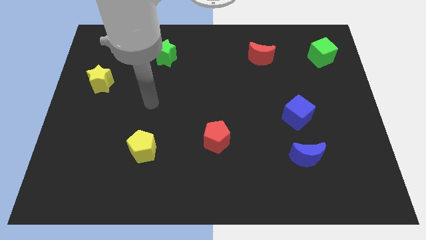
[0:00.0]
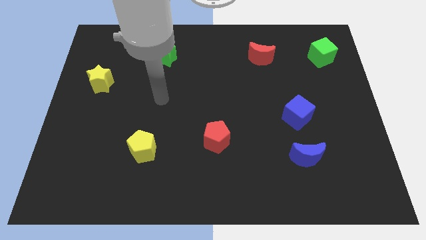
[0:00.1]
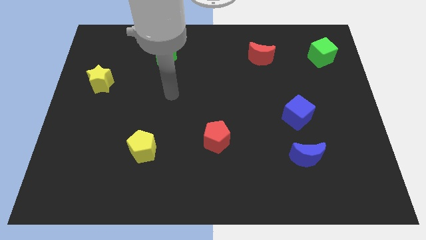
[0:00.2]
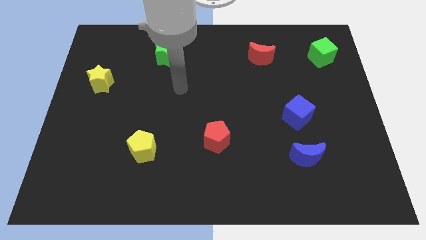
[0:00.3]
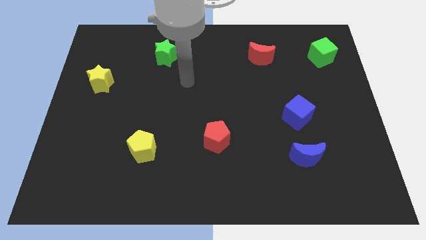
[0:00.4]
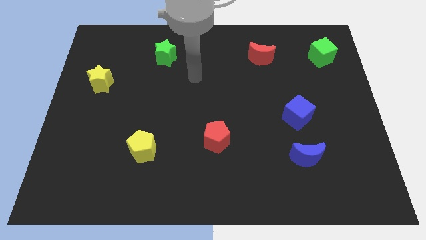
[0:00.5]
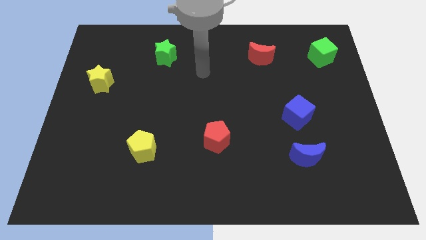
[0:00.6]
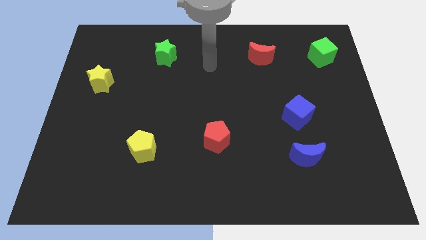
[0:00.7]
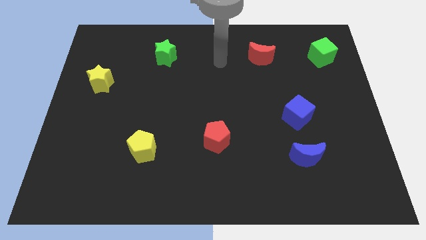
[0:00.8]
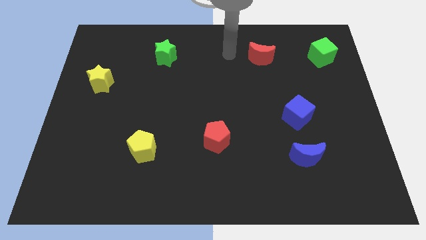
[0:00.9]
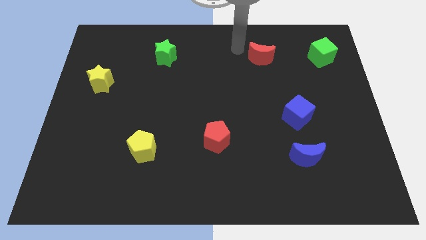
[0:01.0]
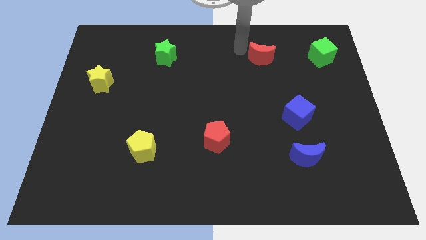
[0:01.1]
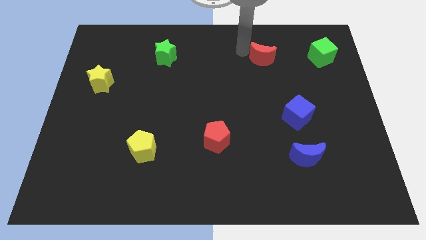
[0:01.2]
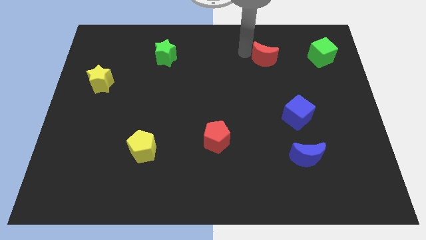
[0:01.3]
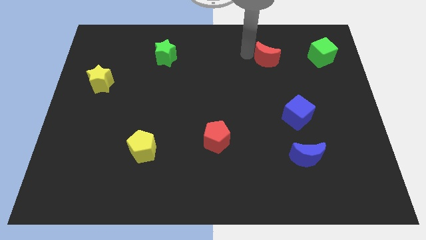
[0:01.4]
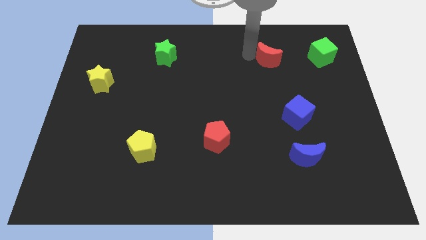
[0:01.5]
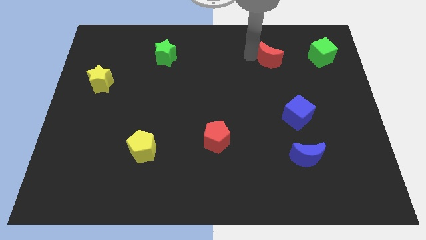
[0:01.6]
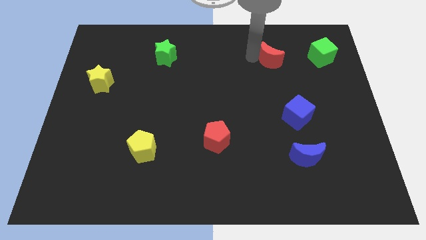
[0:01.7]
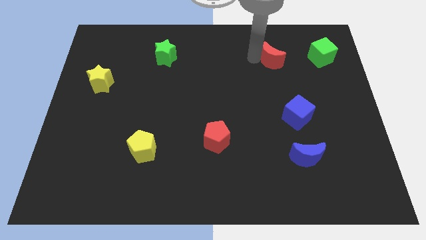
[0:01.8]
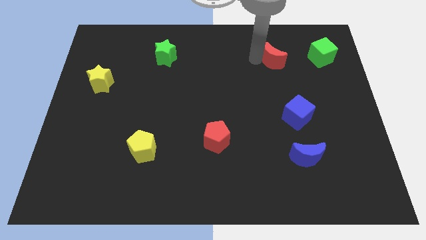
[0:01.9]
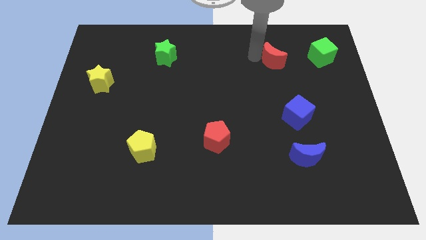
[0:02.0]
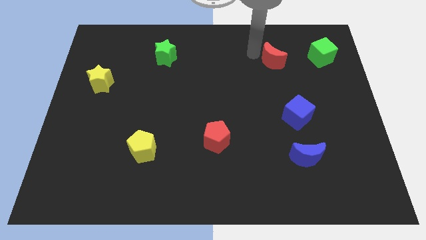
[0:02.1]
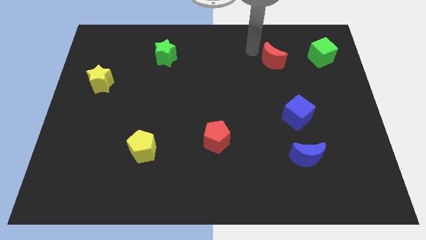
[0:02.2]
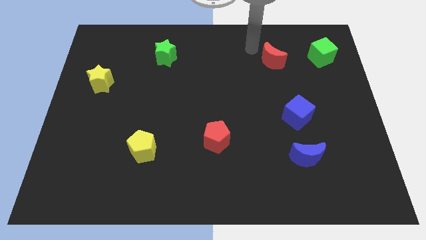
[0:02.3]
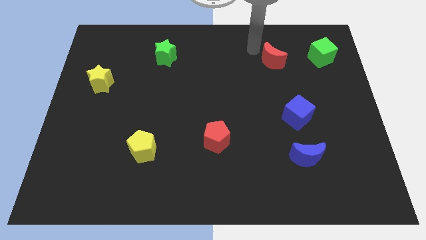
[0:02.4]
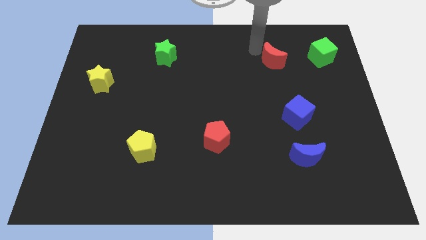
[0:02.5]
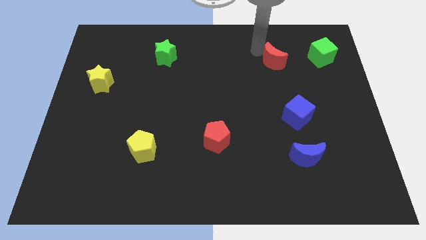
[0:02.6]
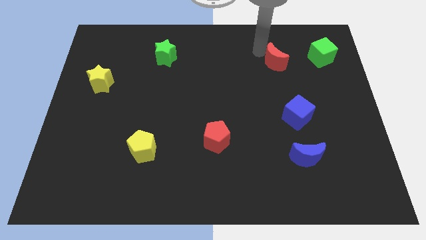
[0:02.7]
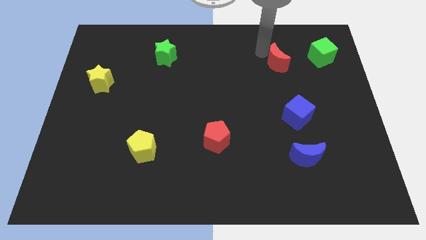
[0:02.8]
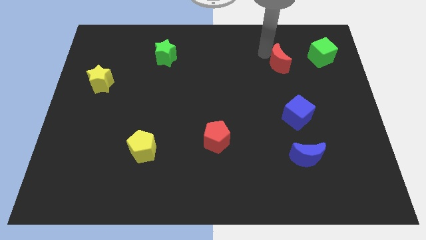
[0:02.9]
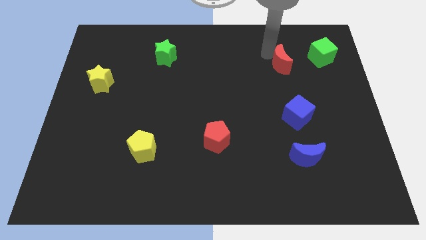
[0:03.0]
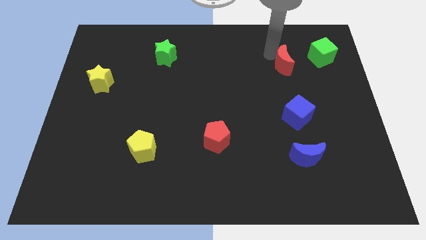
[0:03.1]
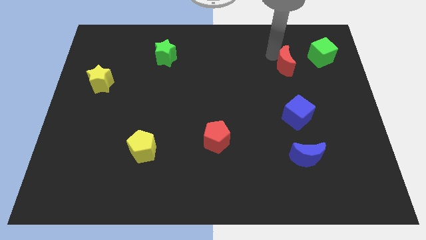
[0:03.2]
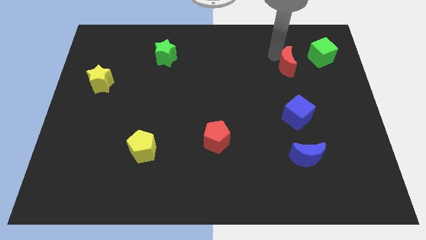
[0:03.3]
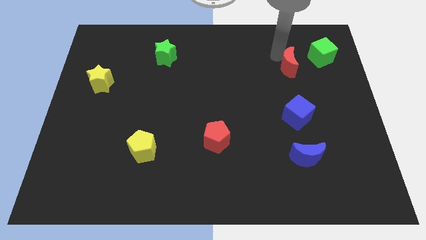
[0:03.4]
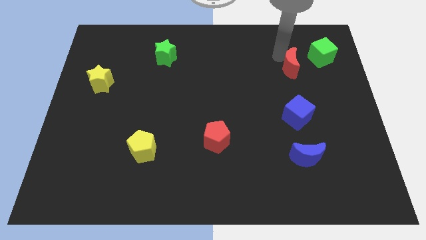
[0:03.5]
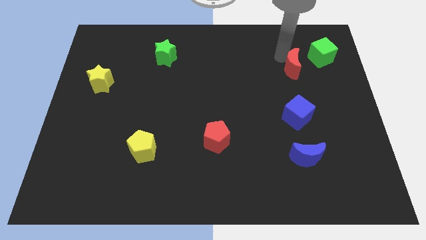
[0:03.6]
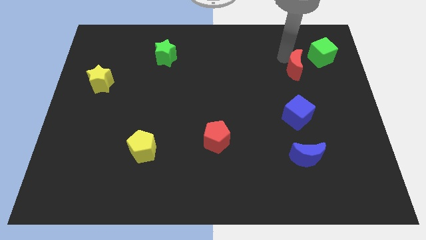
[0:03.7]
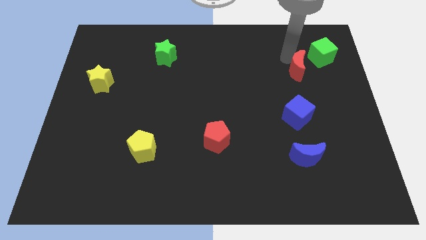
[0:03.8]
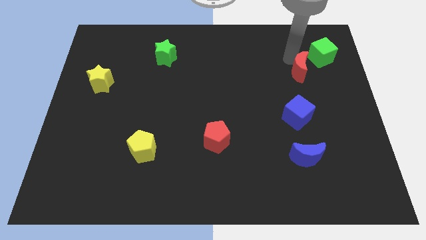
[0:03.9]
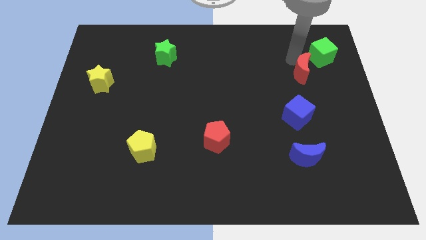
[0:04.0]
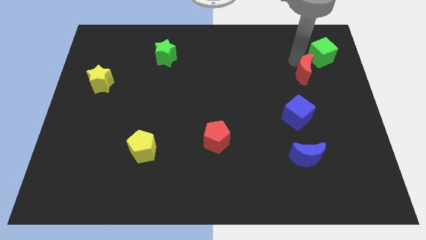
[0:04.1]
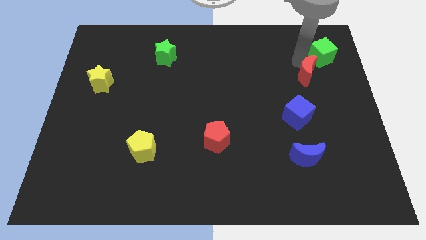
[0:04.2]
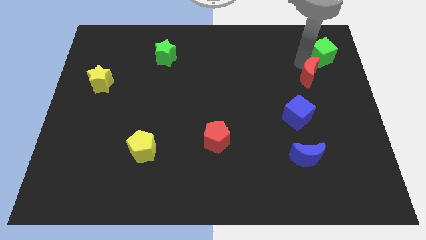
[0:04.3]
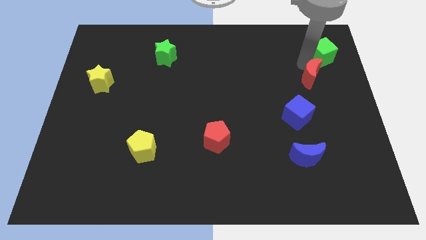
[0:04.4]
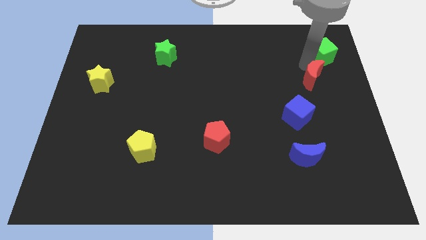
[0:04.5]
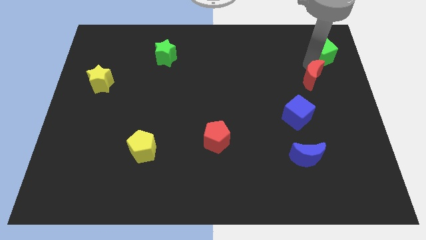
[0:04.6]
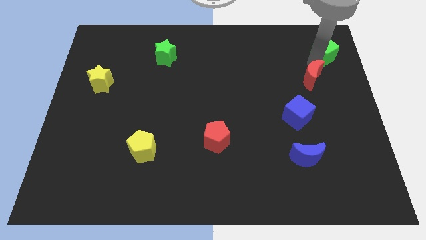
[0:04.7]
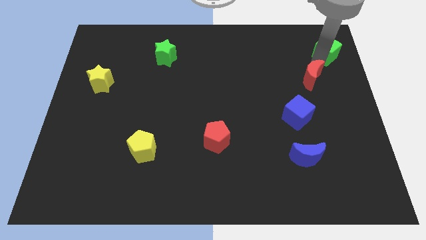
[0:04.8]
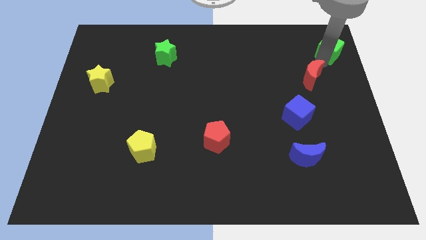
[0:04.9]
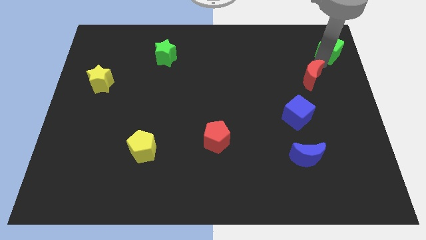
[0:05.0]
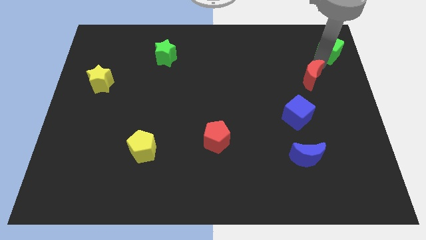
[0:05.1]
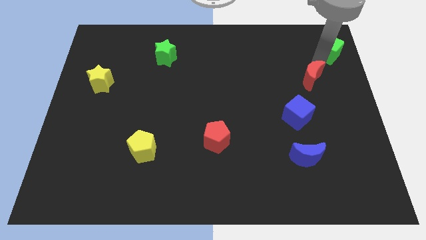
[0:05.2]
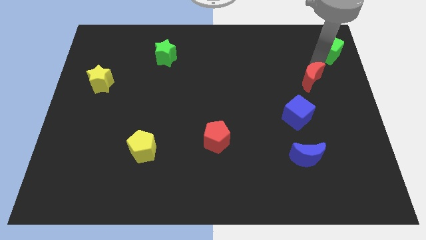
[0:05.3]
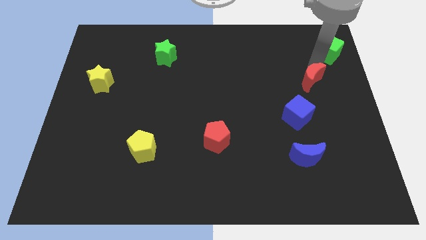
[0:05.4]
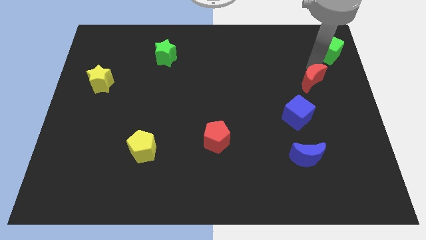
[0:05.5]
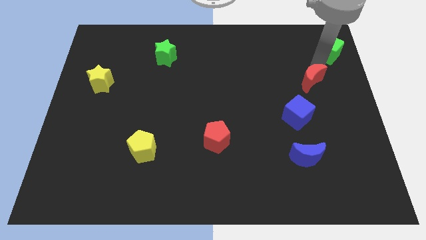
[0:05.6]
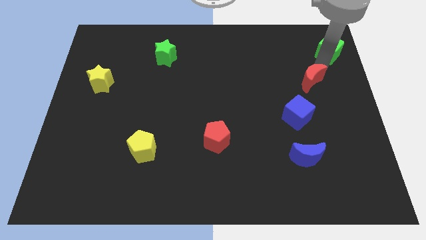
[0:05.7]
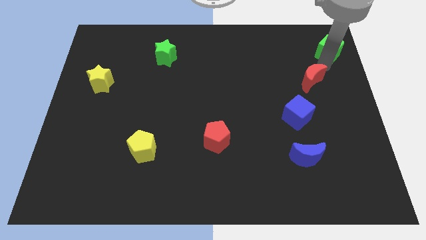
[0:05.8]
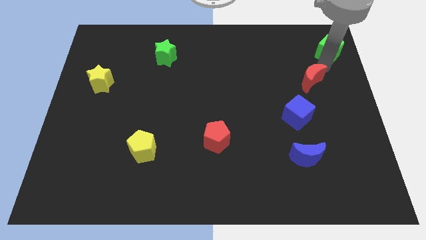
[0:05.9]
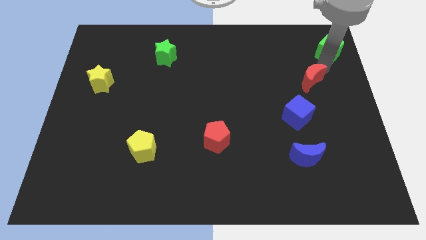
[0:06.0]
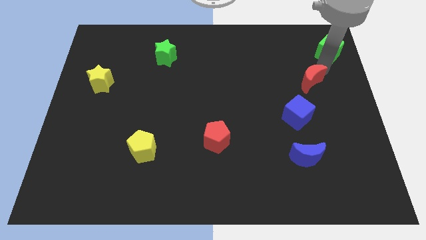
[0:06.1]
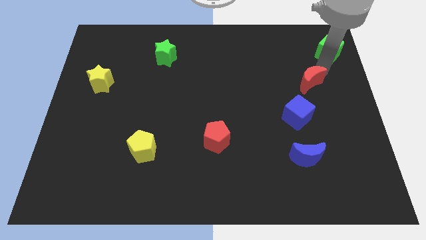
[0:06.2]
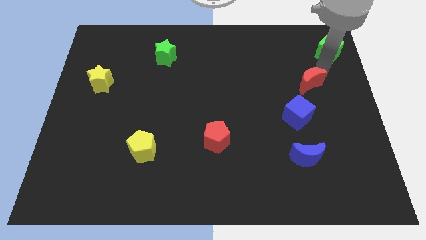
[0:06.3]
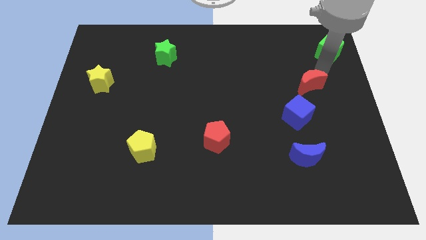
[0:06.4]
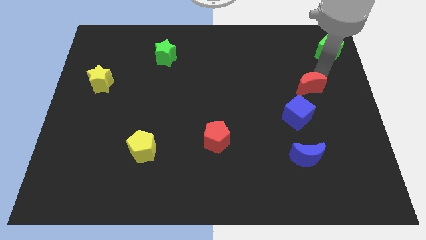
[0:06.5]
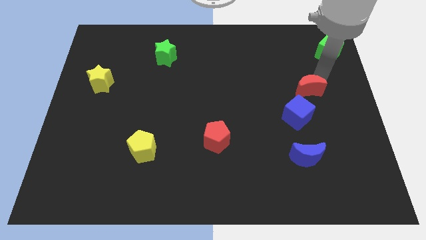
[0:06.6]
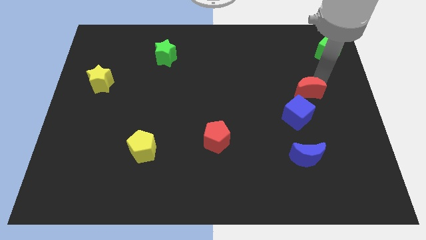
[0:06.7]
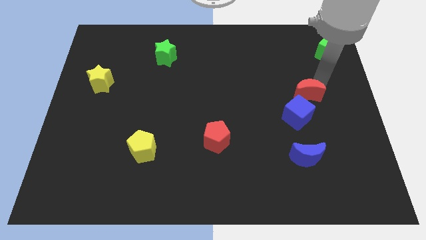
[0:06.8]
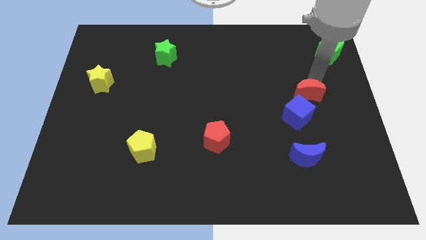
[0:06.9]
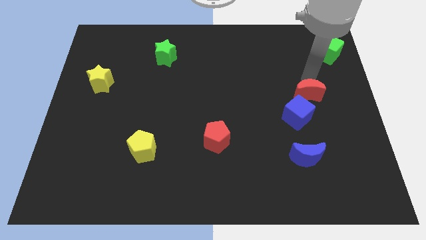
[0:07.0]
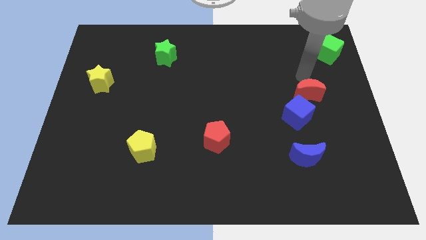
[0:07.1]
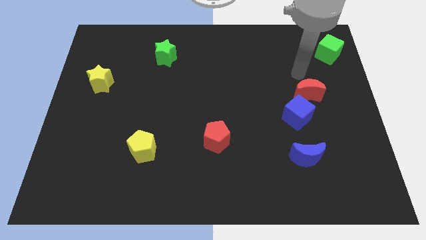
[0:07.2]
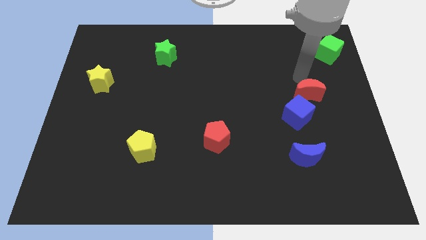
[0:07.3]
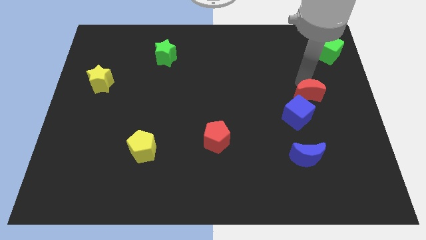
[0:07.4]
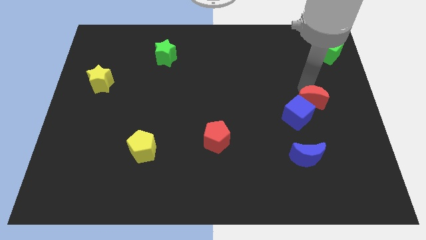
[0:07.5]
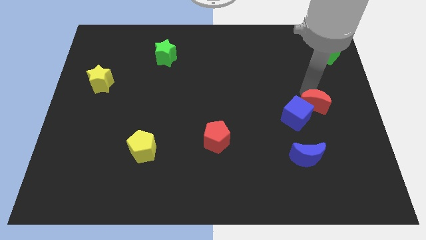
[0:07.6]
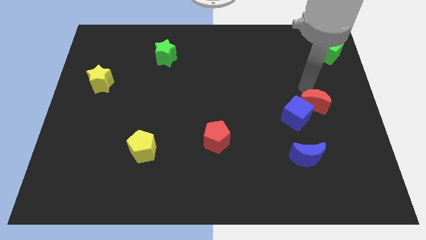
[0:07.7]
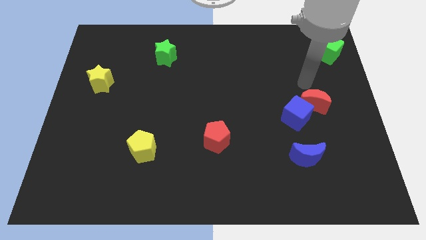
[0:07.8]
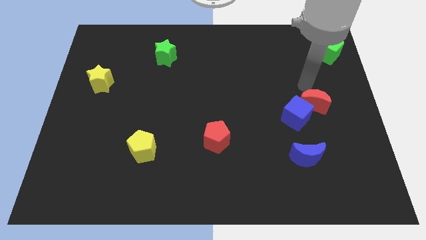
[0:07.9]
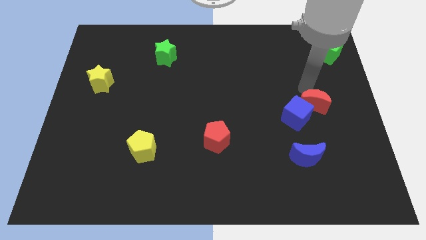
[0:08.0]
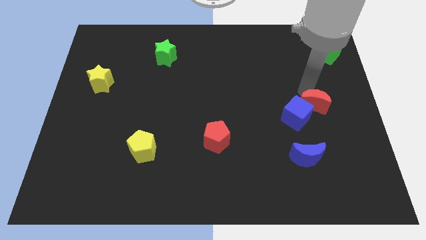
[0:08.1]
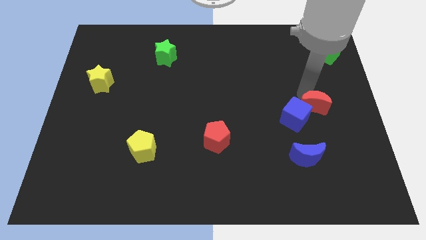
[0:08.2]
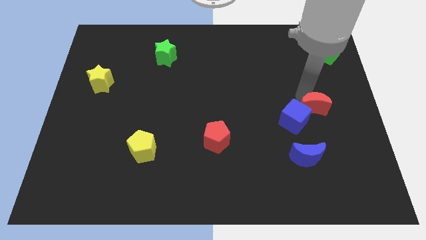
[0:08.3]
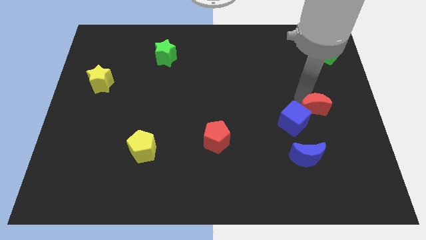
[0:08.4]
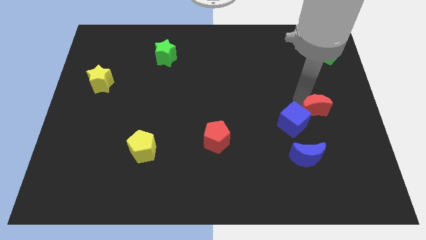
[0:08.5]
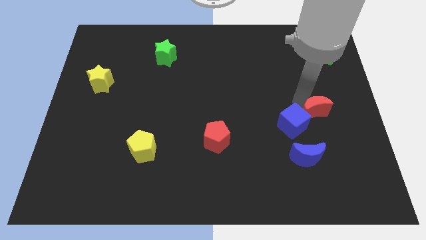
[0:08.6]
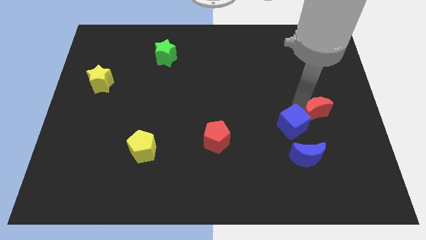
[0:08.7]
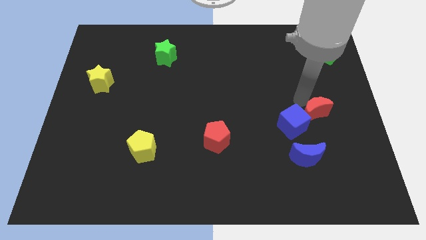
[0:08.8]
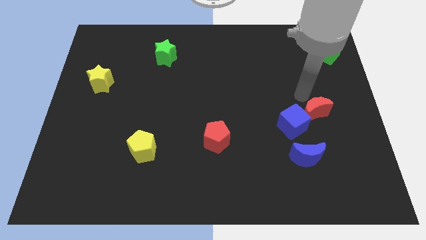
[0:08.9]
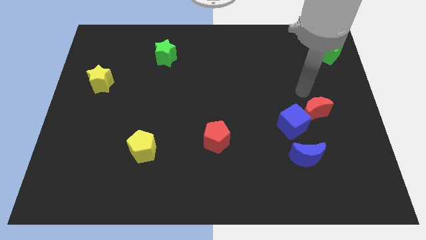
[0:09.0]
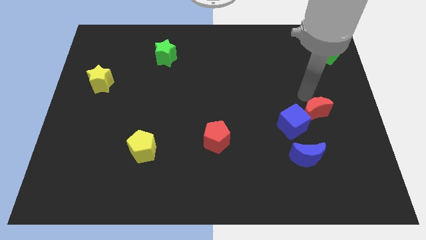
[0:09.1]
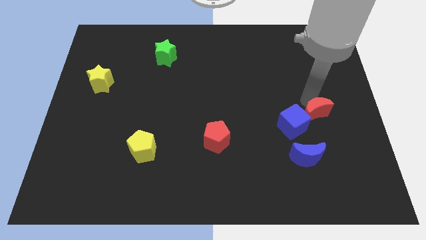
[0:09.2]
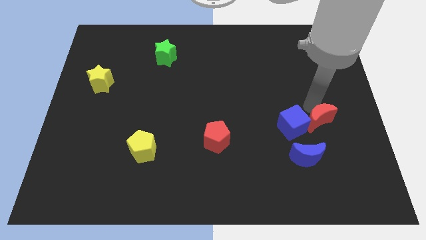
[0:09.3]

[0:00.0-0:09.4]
push the red moon to the top right of the blue moon
